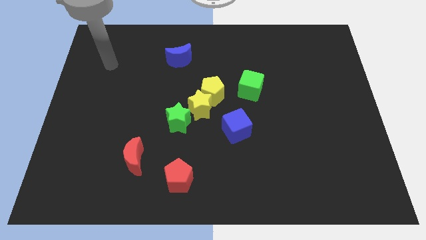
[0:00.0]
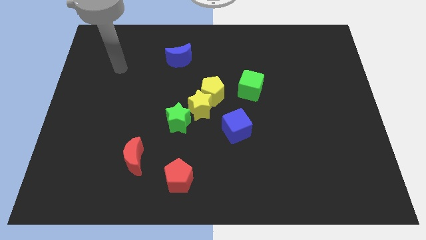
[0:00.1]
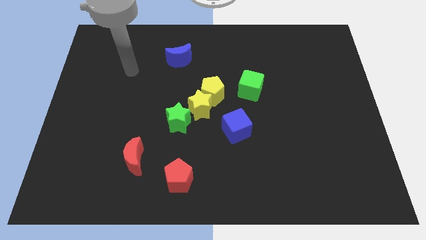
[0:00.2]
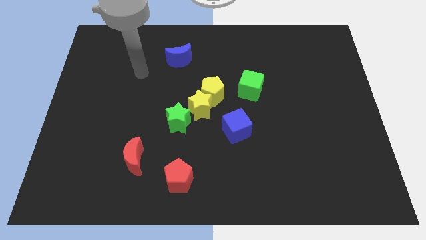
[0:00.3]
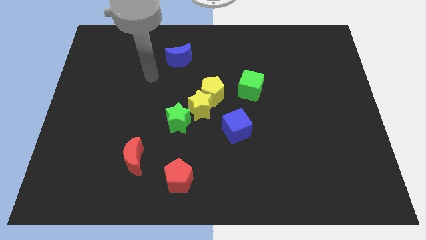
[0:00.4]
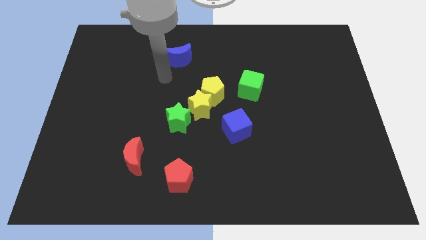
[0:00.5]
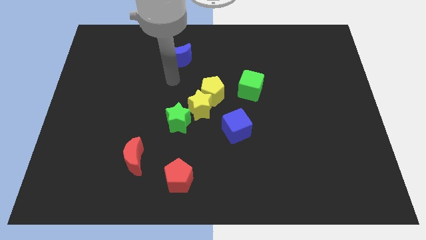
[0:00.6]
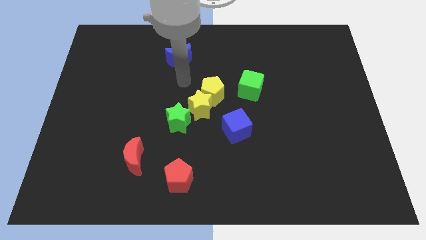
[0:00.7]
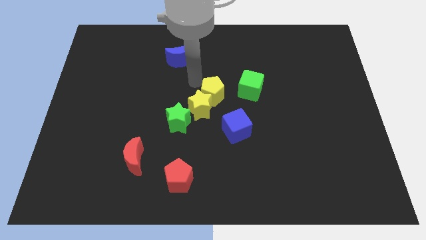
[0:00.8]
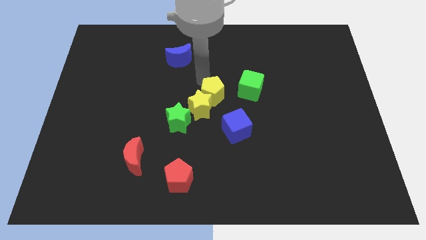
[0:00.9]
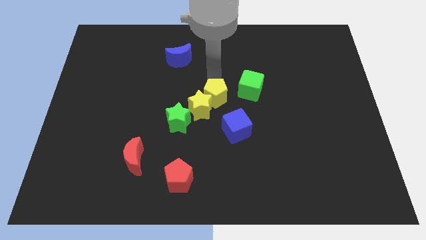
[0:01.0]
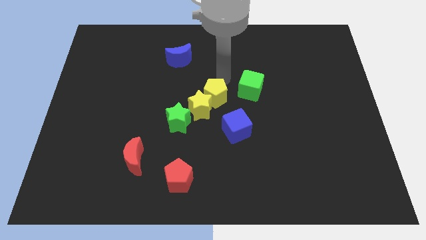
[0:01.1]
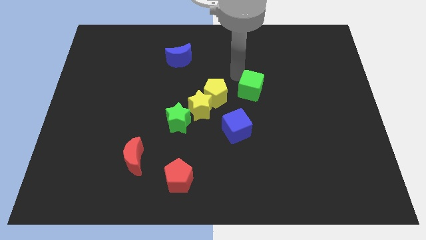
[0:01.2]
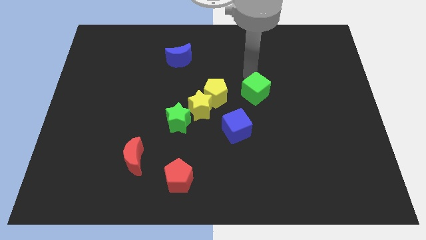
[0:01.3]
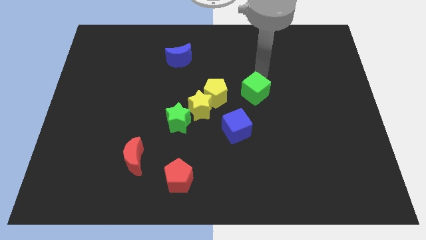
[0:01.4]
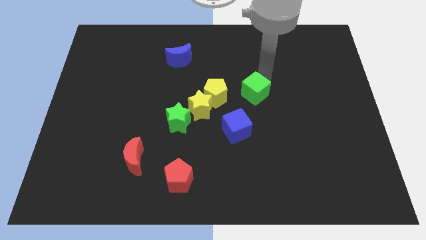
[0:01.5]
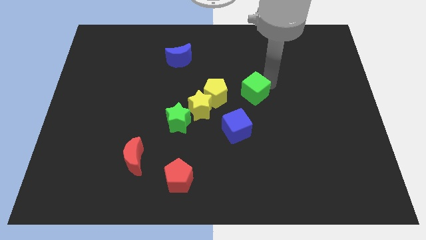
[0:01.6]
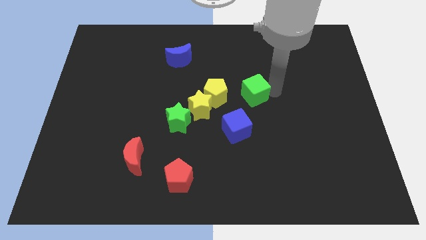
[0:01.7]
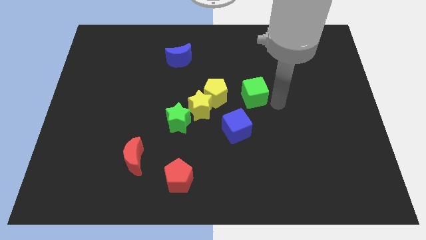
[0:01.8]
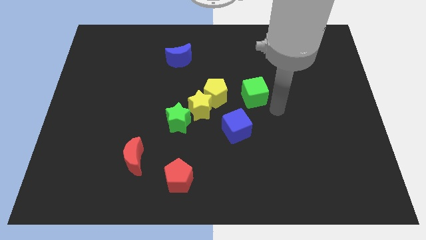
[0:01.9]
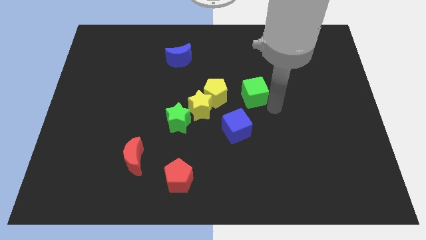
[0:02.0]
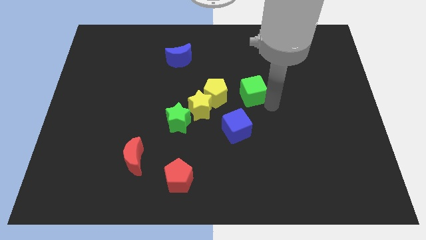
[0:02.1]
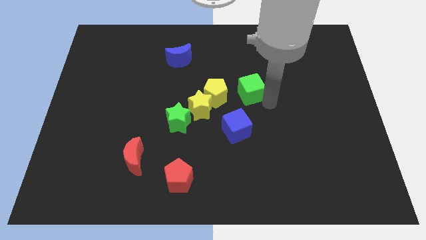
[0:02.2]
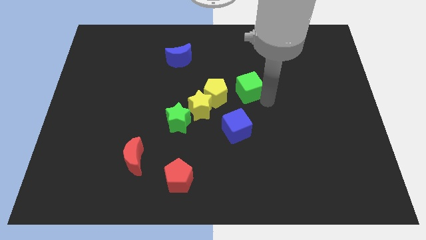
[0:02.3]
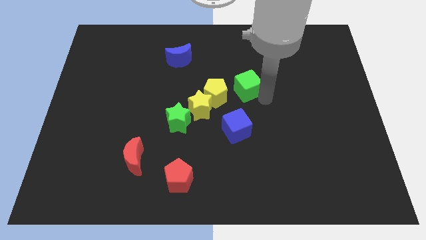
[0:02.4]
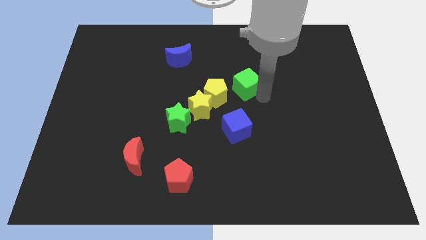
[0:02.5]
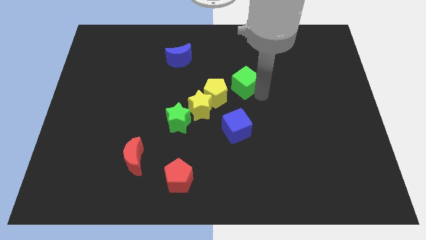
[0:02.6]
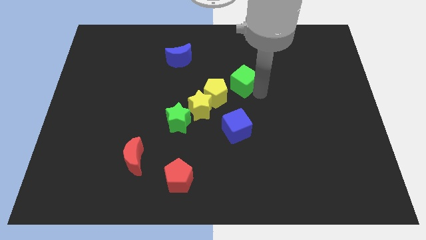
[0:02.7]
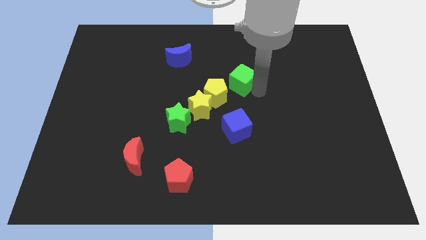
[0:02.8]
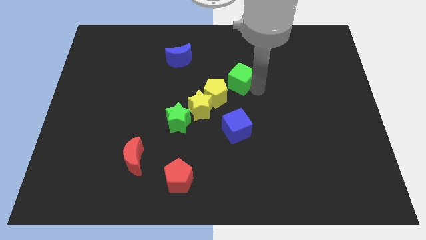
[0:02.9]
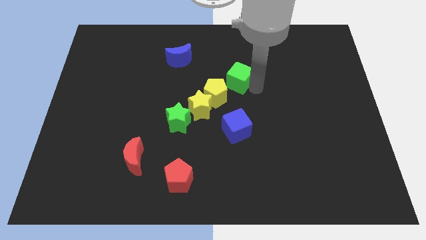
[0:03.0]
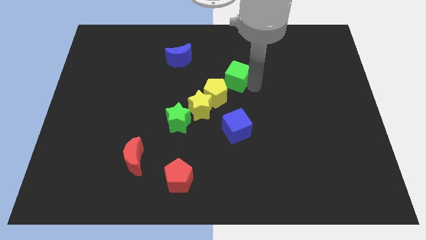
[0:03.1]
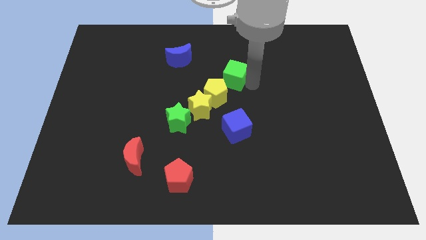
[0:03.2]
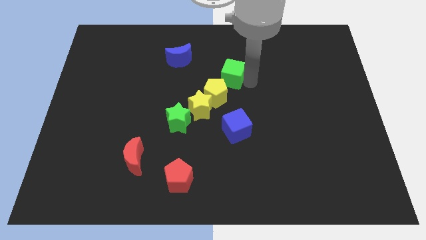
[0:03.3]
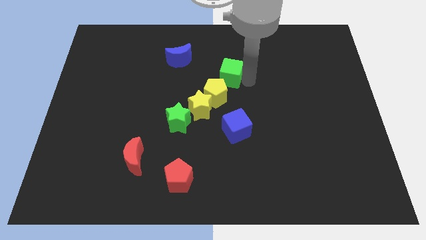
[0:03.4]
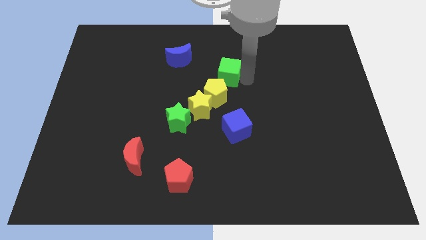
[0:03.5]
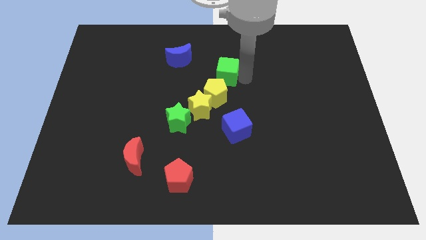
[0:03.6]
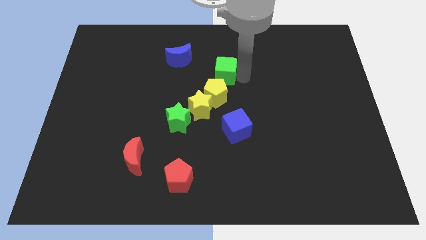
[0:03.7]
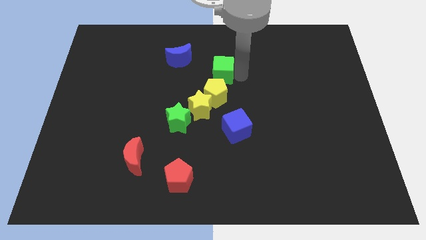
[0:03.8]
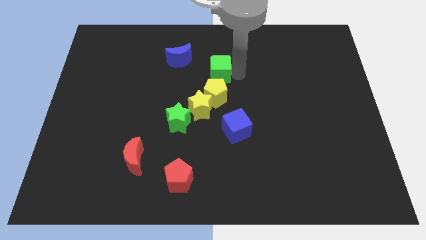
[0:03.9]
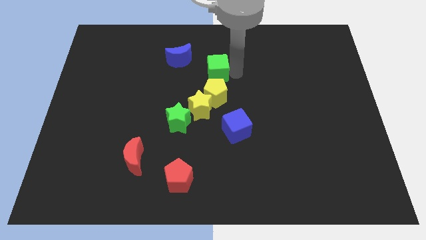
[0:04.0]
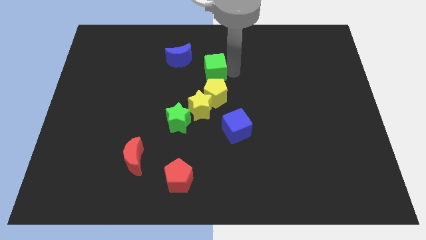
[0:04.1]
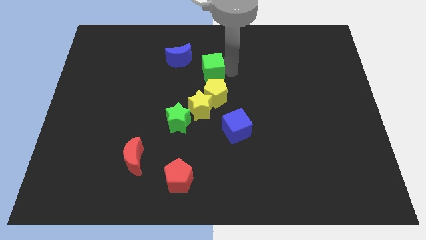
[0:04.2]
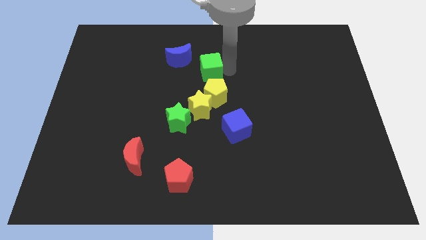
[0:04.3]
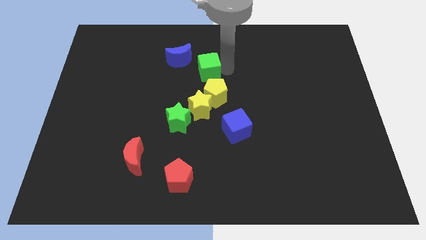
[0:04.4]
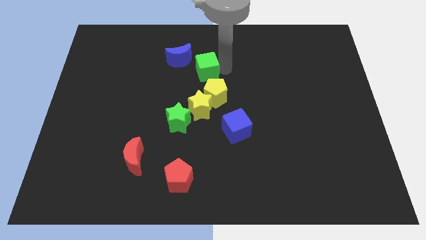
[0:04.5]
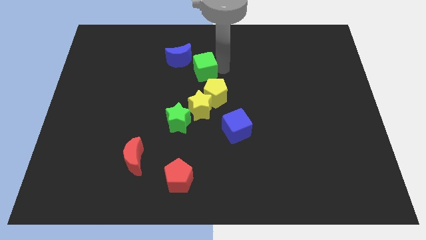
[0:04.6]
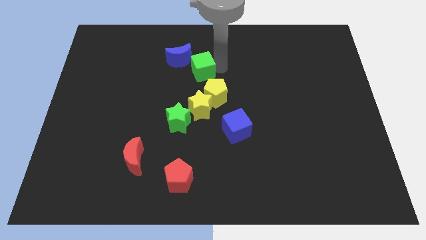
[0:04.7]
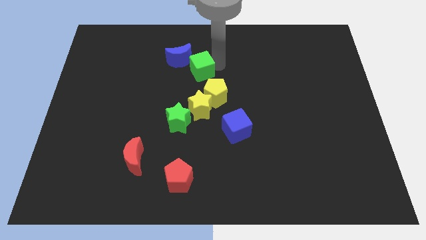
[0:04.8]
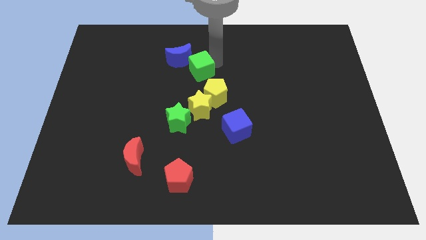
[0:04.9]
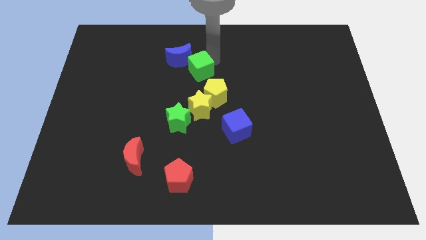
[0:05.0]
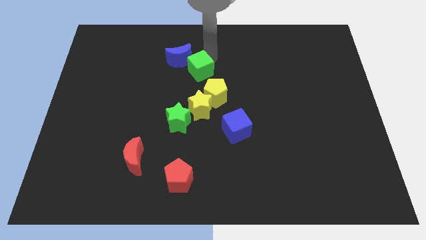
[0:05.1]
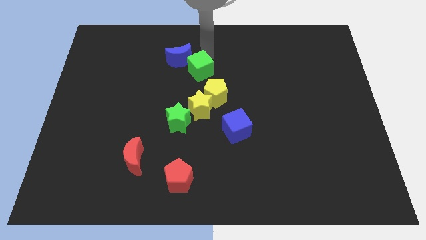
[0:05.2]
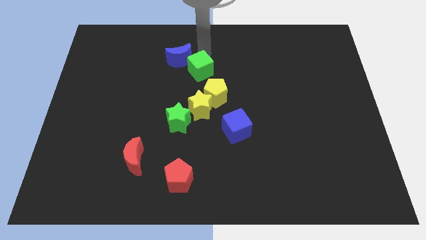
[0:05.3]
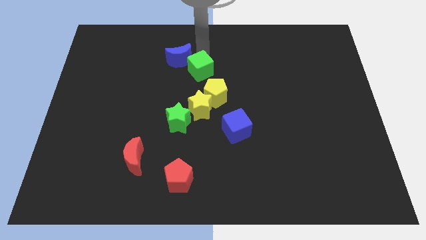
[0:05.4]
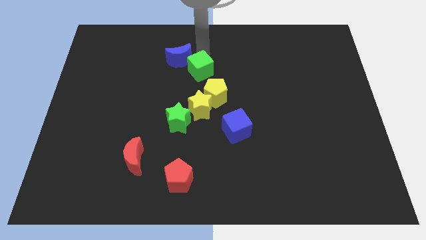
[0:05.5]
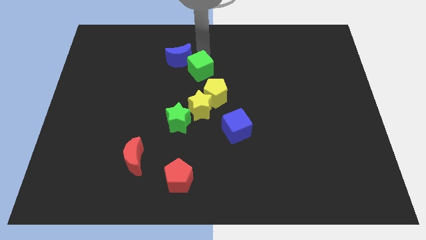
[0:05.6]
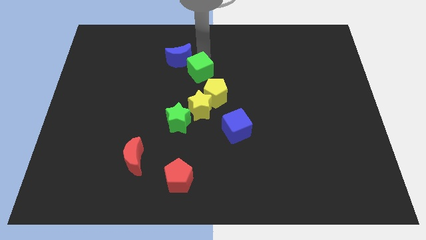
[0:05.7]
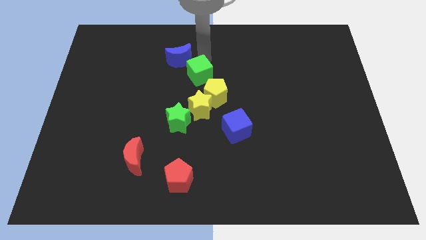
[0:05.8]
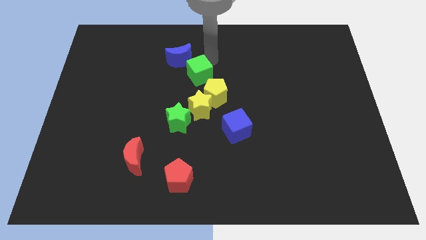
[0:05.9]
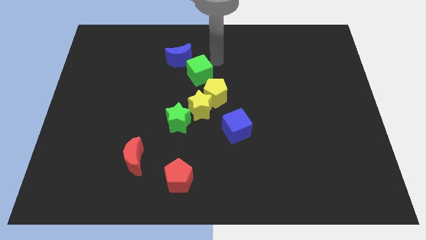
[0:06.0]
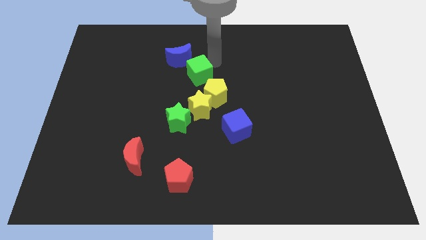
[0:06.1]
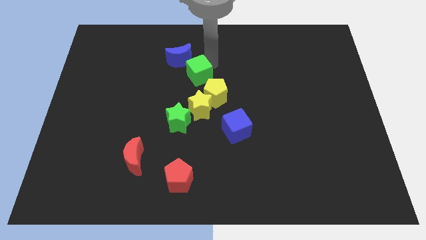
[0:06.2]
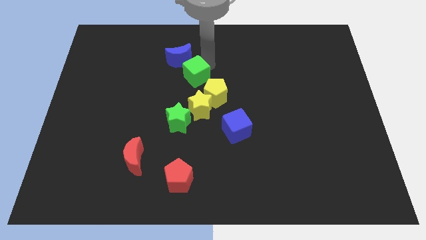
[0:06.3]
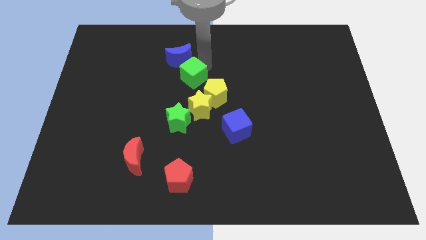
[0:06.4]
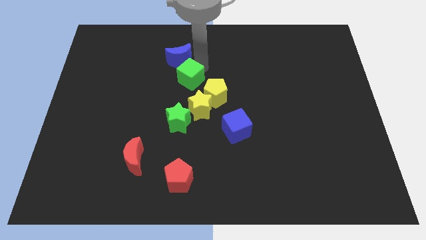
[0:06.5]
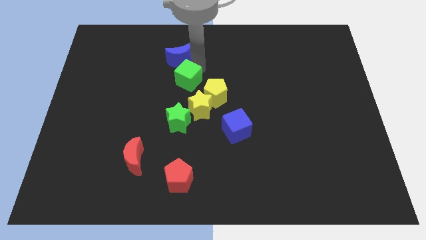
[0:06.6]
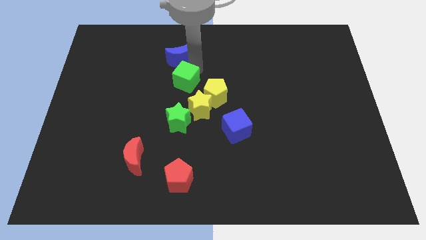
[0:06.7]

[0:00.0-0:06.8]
move the green cube to the left side of the yellow pentagon
